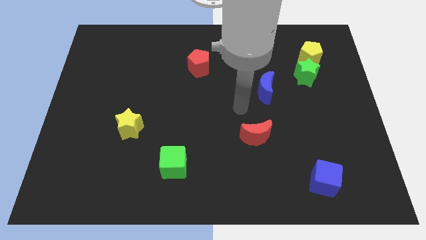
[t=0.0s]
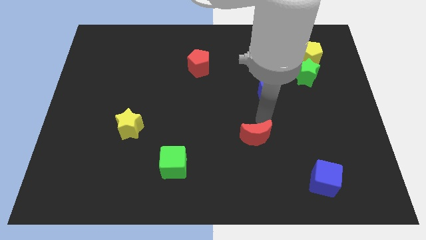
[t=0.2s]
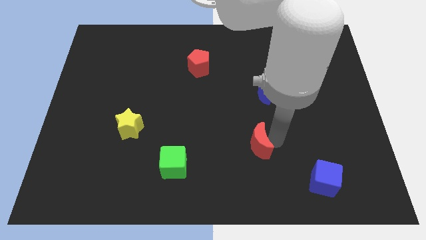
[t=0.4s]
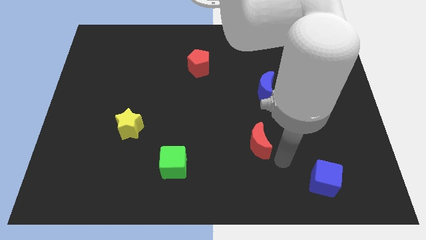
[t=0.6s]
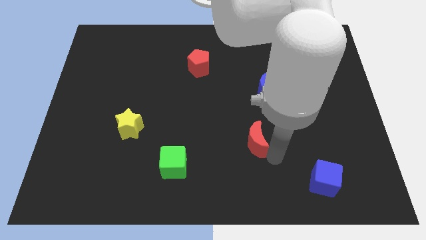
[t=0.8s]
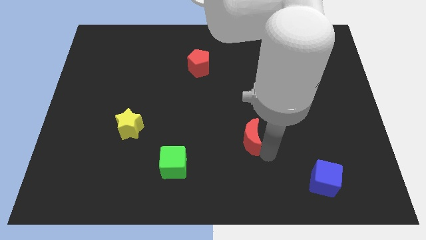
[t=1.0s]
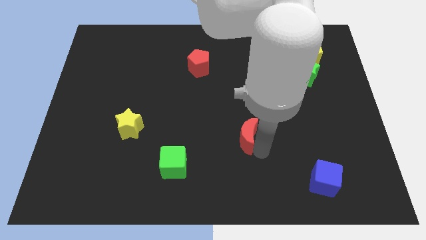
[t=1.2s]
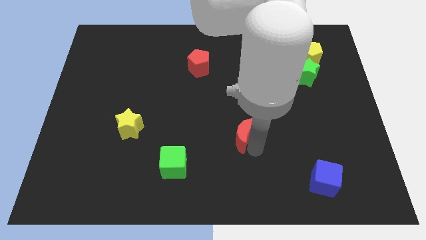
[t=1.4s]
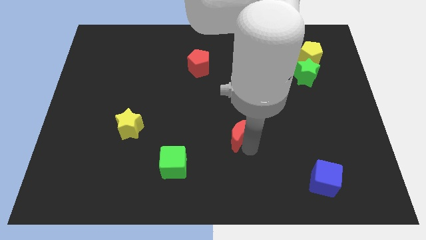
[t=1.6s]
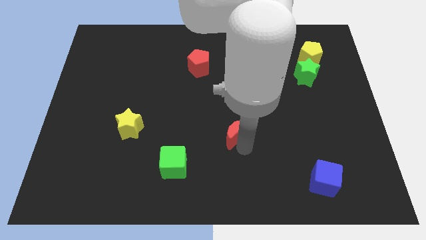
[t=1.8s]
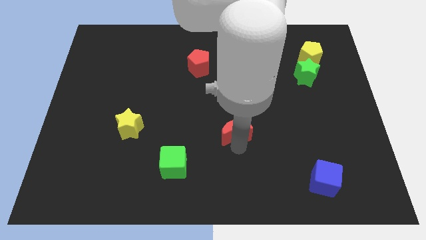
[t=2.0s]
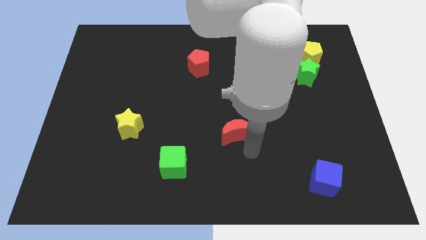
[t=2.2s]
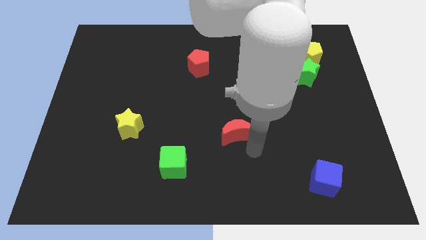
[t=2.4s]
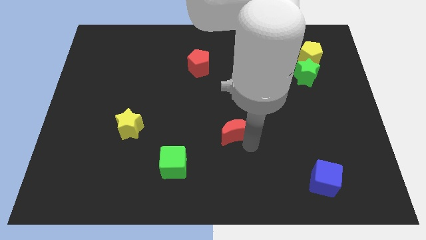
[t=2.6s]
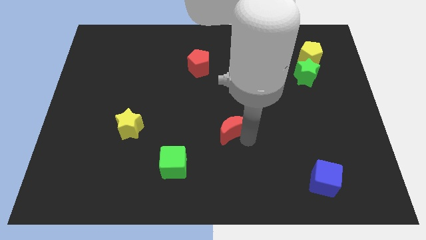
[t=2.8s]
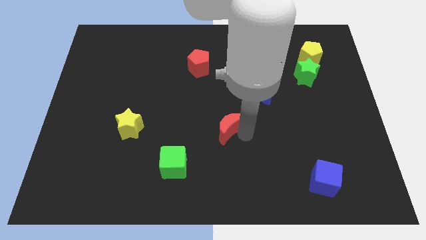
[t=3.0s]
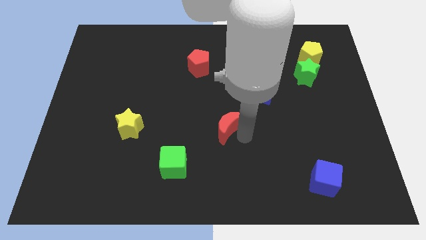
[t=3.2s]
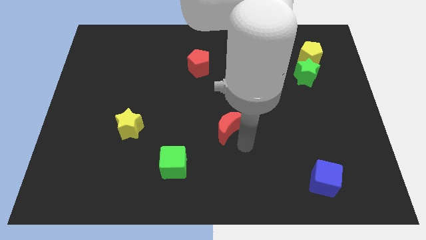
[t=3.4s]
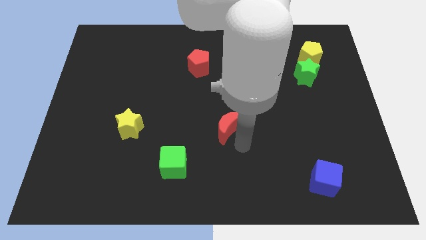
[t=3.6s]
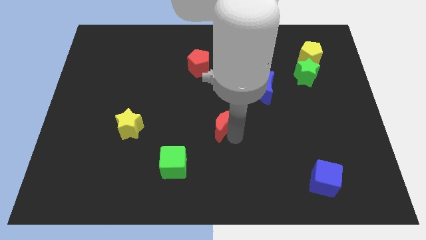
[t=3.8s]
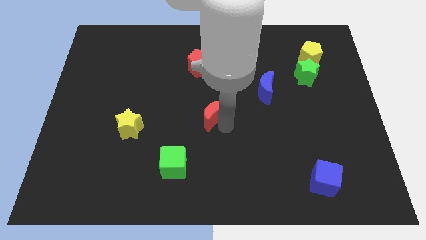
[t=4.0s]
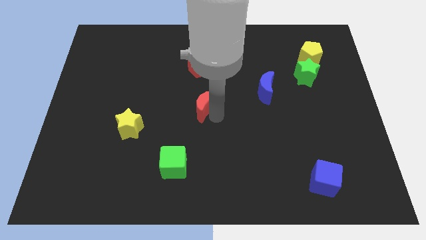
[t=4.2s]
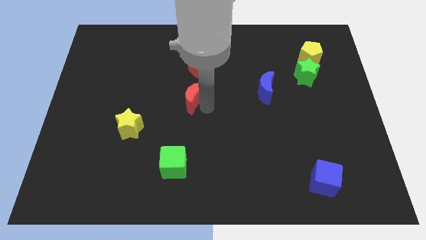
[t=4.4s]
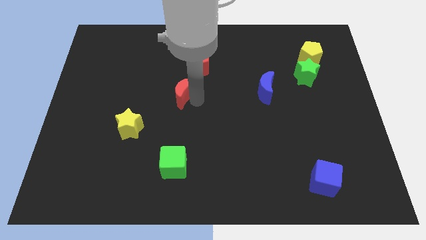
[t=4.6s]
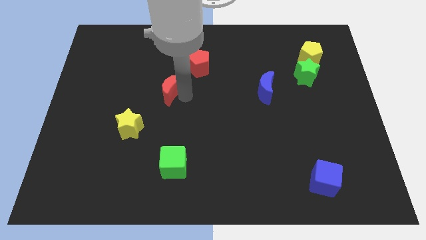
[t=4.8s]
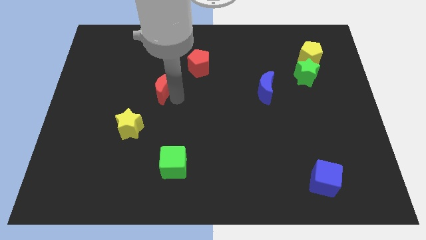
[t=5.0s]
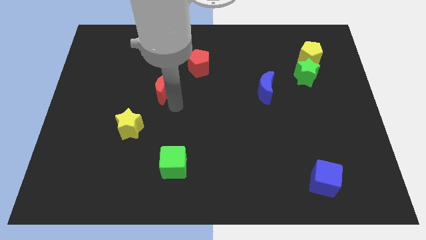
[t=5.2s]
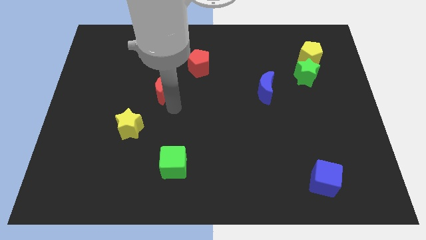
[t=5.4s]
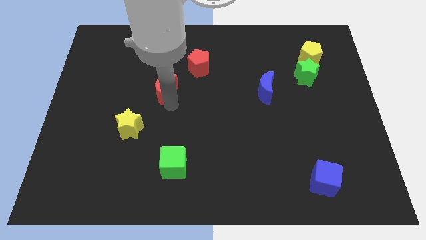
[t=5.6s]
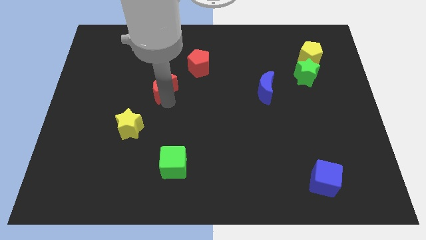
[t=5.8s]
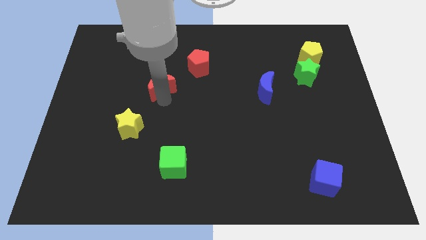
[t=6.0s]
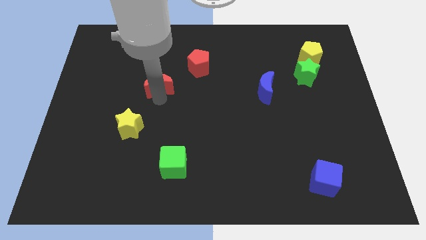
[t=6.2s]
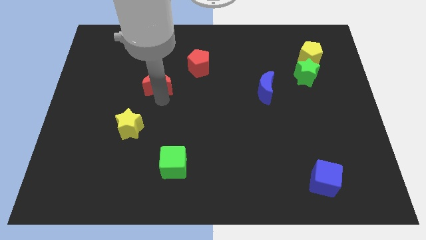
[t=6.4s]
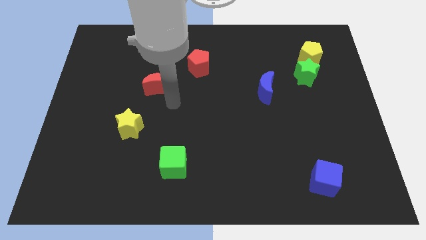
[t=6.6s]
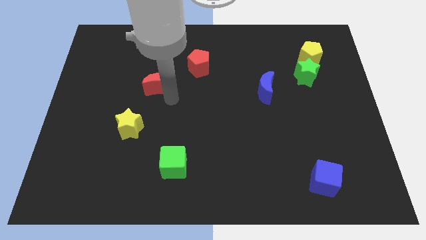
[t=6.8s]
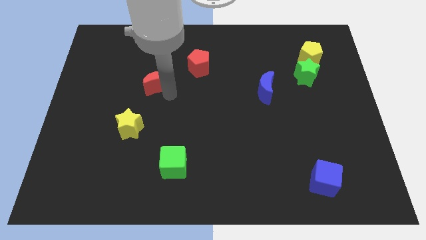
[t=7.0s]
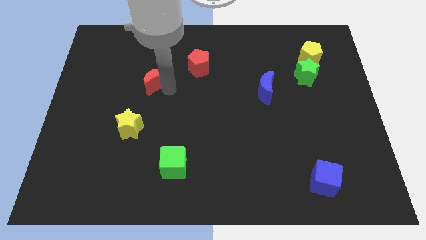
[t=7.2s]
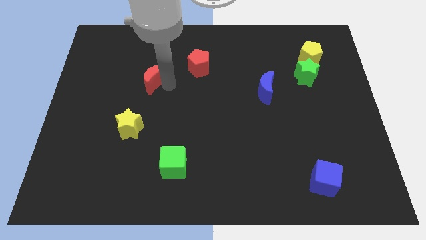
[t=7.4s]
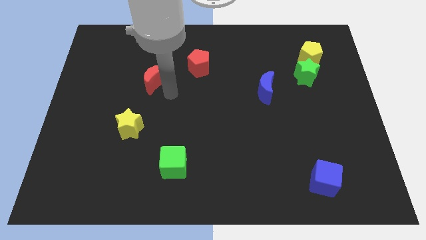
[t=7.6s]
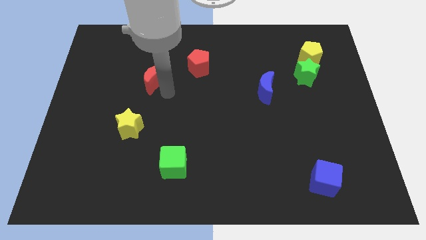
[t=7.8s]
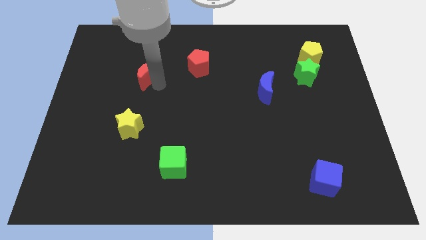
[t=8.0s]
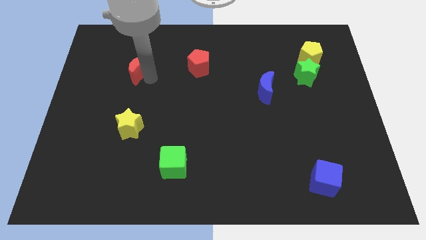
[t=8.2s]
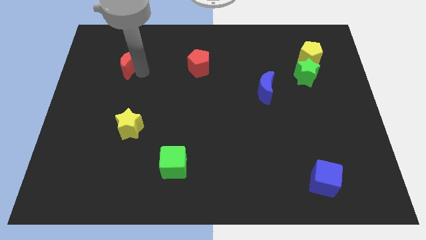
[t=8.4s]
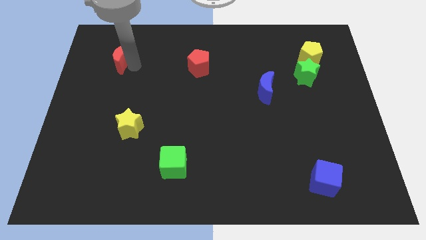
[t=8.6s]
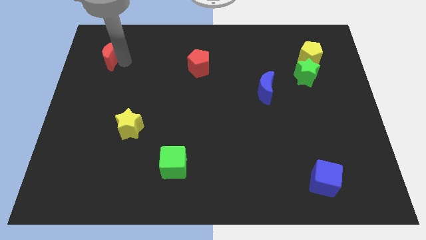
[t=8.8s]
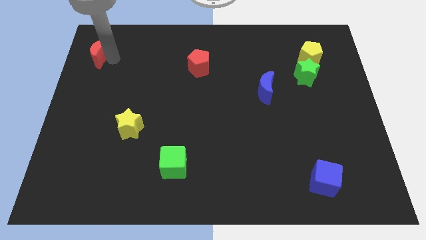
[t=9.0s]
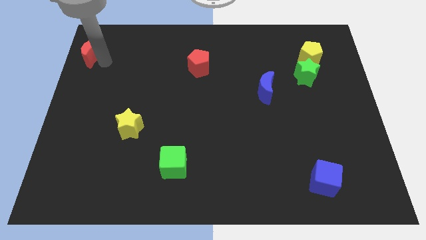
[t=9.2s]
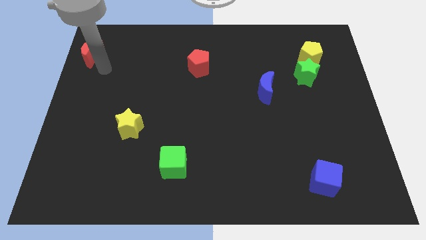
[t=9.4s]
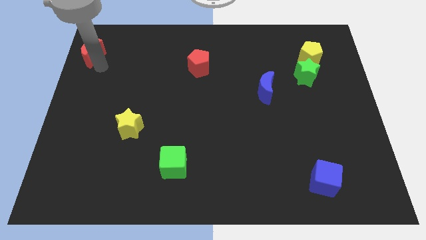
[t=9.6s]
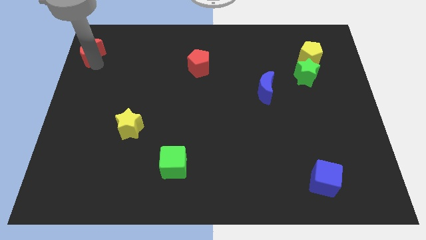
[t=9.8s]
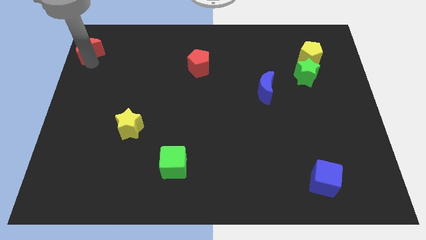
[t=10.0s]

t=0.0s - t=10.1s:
push the red moon to the top left corner

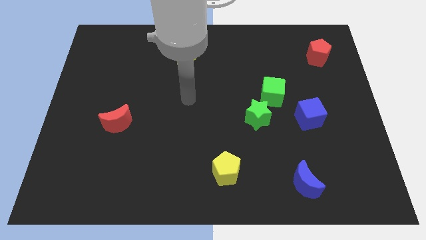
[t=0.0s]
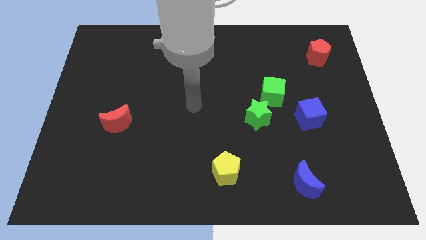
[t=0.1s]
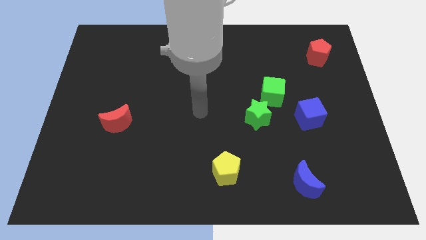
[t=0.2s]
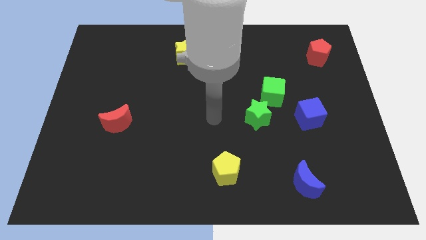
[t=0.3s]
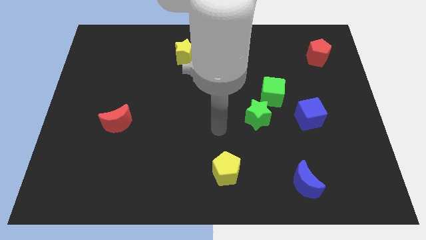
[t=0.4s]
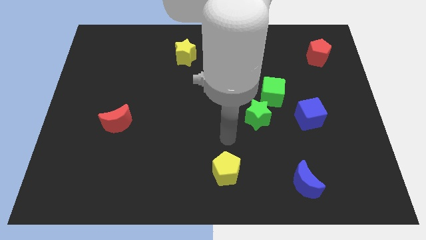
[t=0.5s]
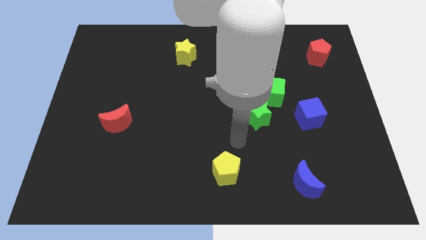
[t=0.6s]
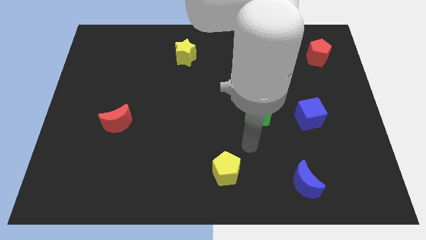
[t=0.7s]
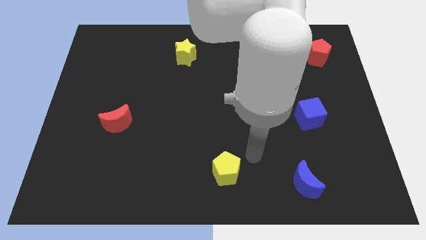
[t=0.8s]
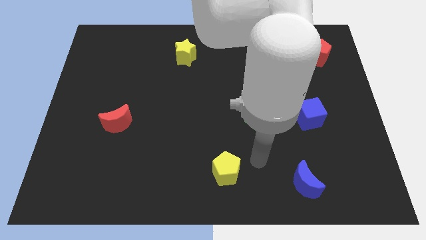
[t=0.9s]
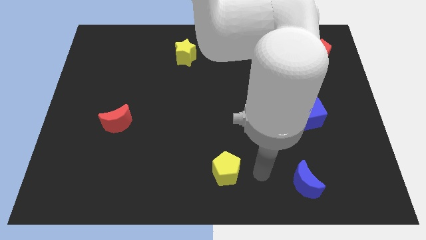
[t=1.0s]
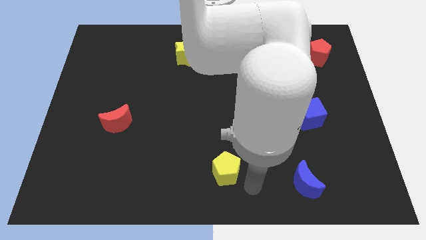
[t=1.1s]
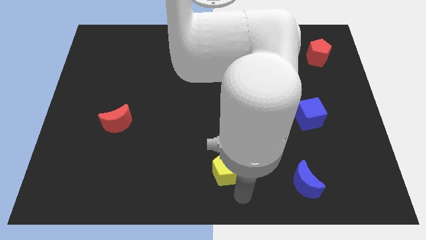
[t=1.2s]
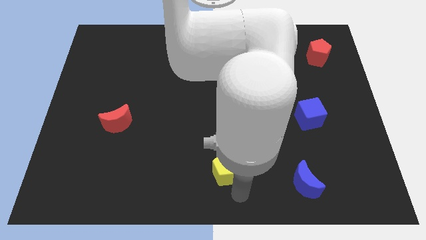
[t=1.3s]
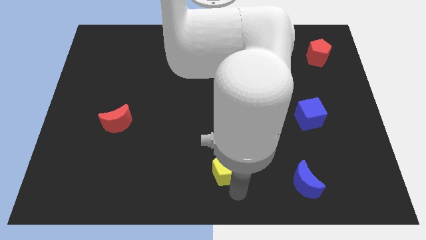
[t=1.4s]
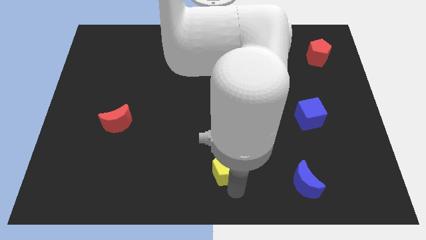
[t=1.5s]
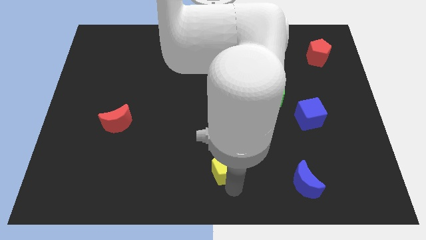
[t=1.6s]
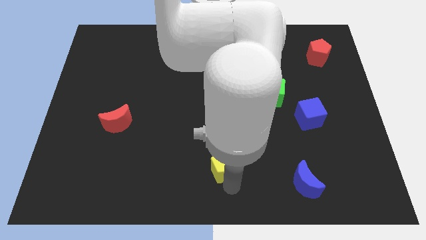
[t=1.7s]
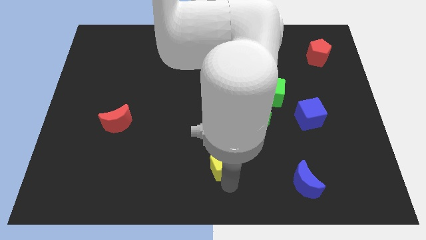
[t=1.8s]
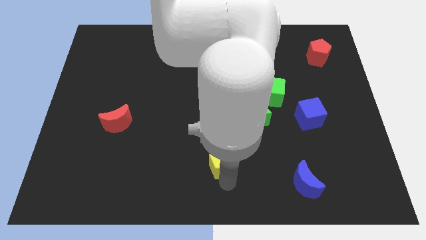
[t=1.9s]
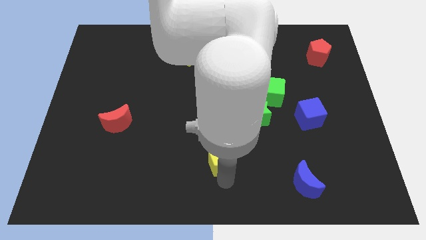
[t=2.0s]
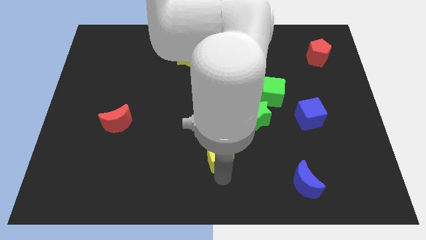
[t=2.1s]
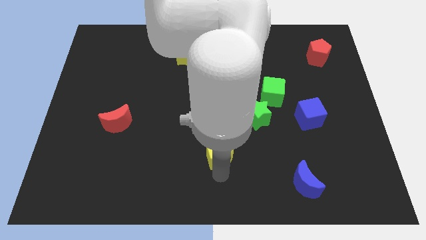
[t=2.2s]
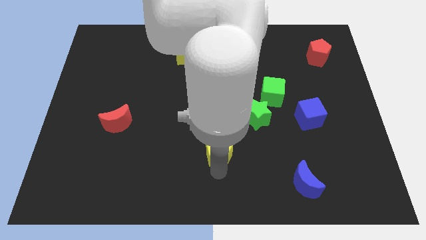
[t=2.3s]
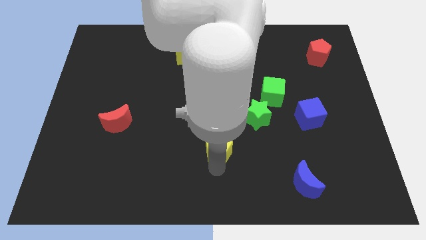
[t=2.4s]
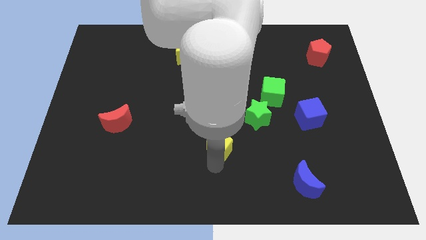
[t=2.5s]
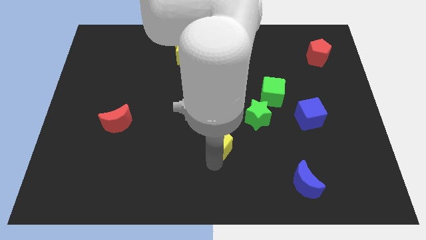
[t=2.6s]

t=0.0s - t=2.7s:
move the yellow pentagon to the middle of the board
